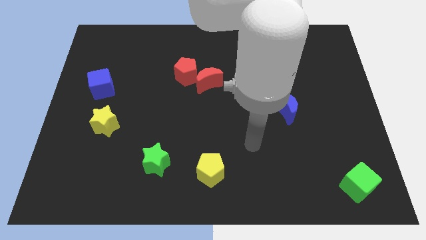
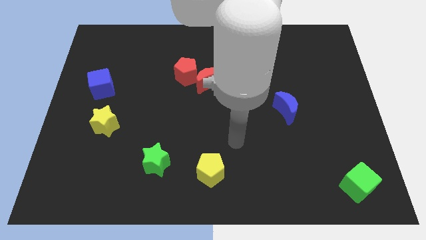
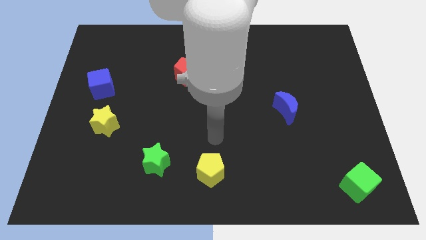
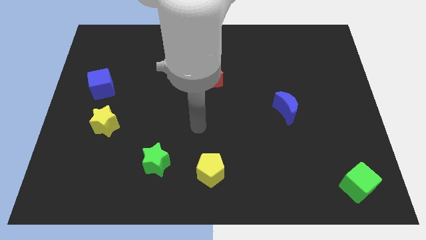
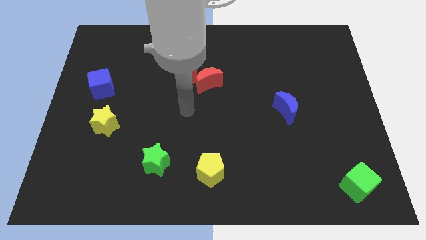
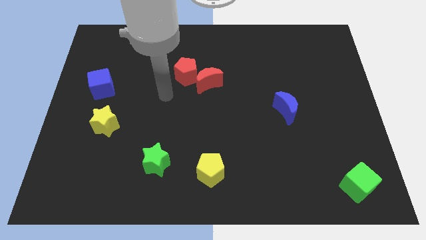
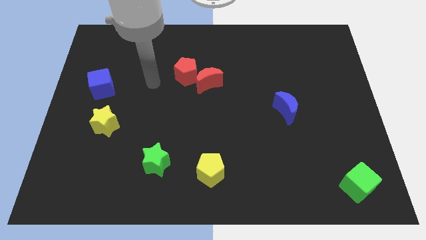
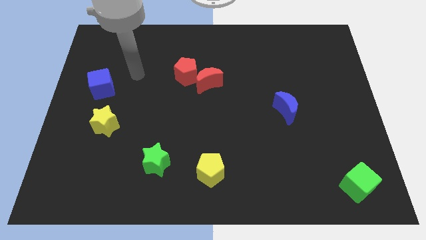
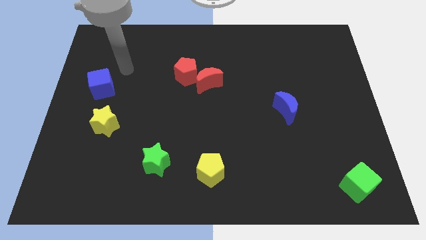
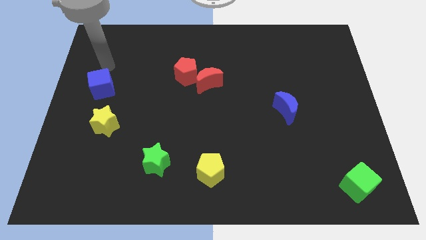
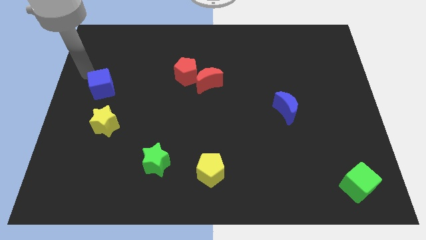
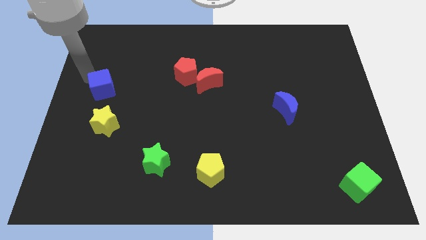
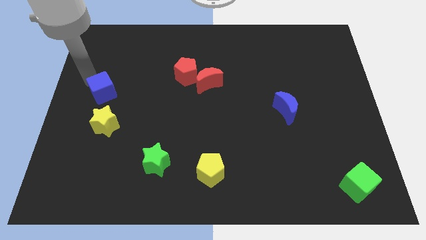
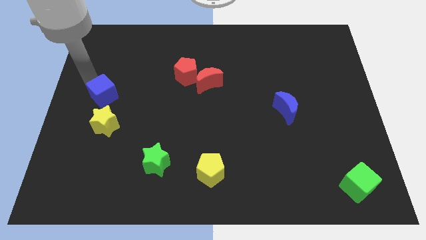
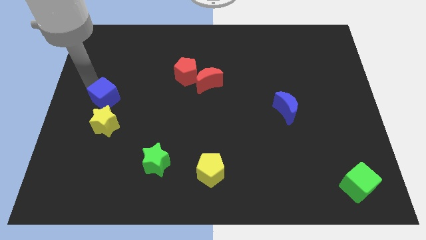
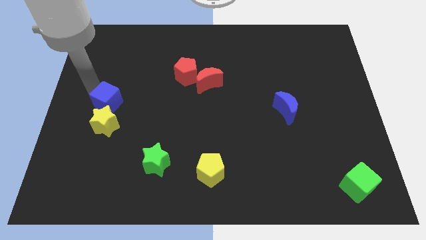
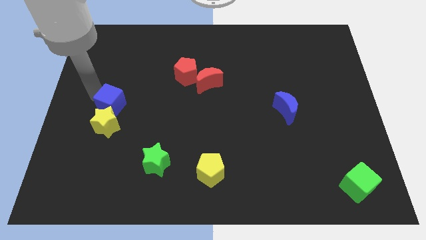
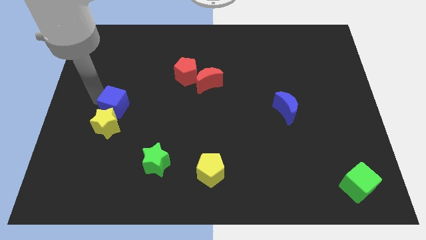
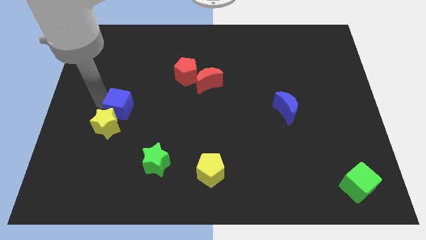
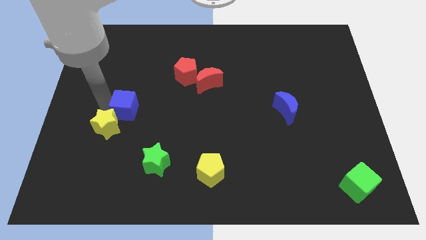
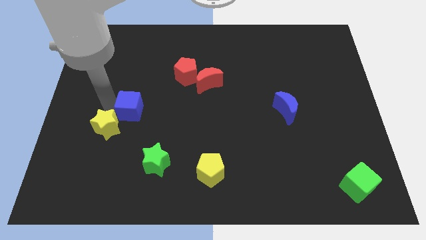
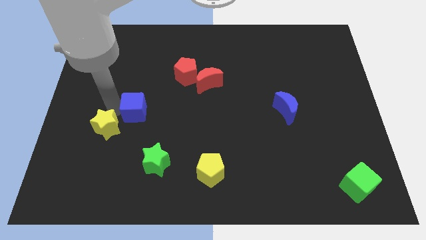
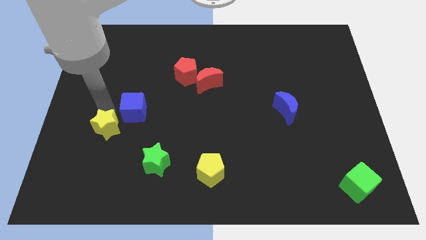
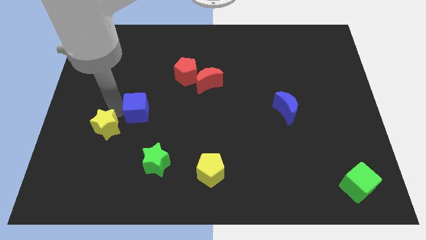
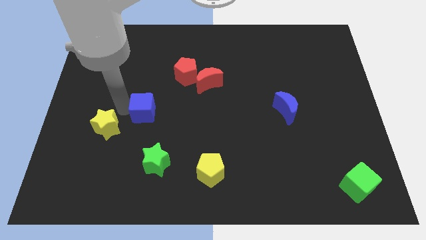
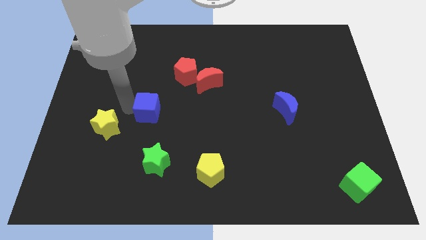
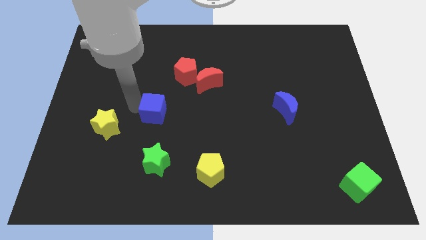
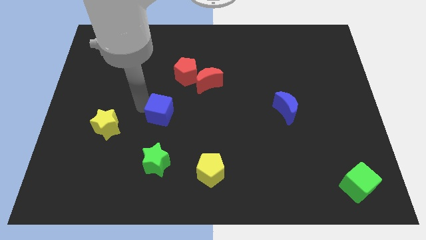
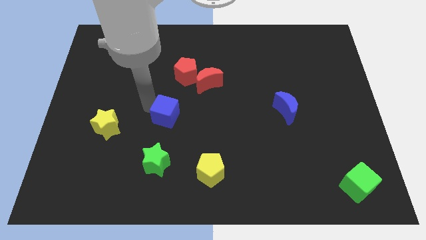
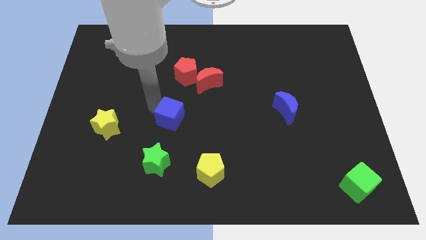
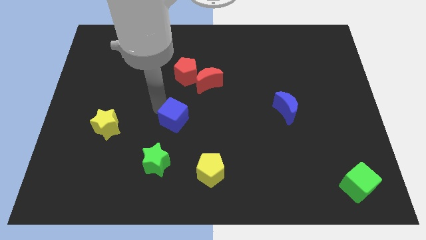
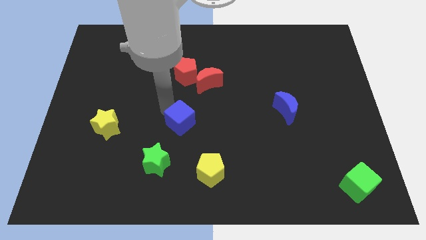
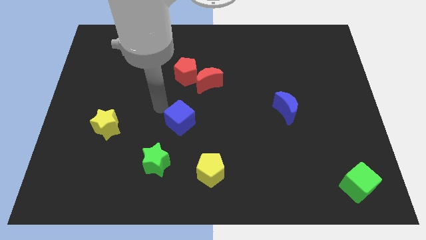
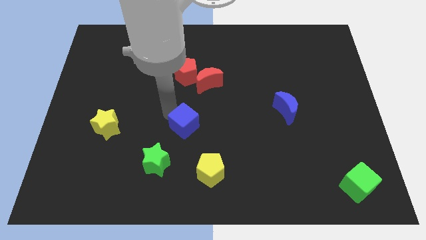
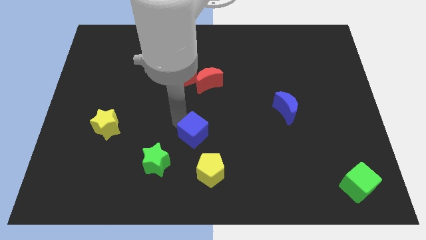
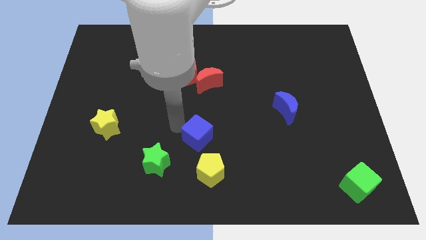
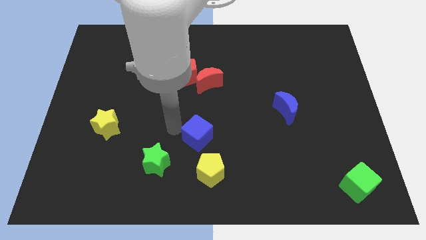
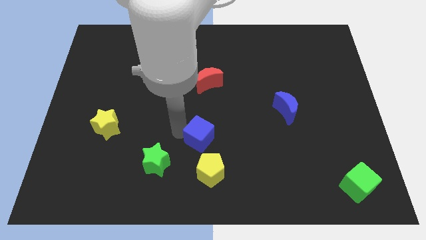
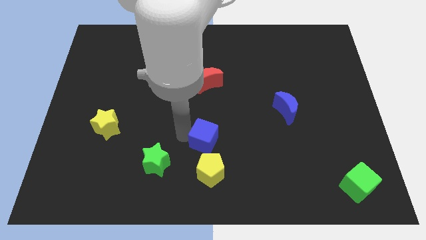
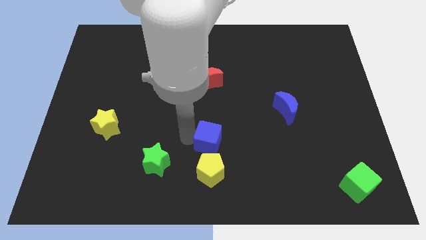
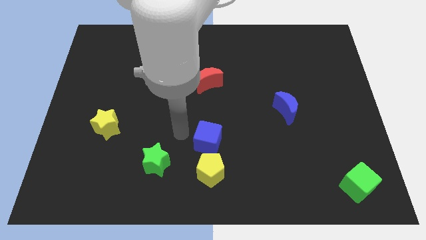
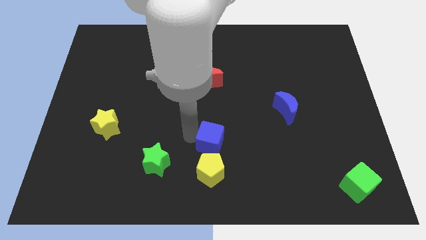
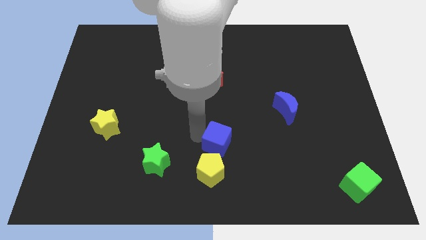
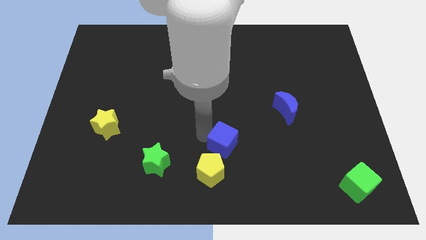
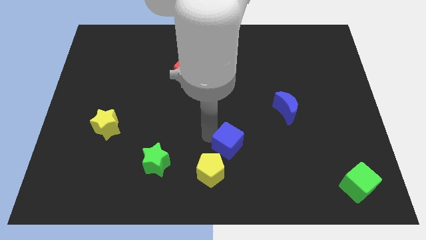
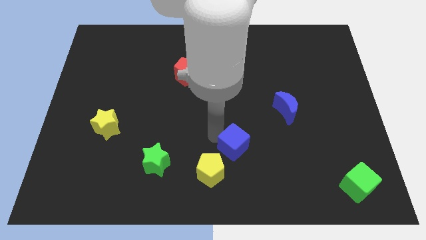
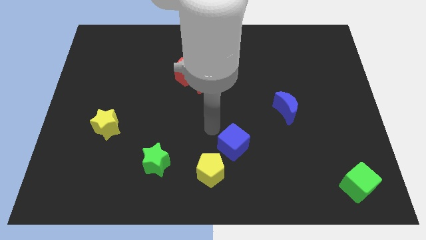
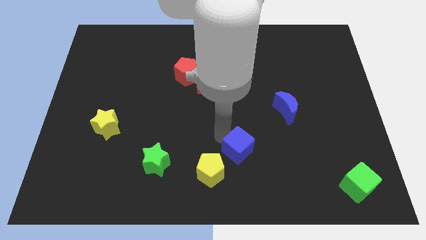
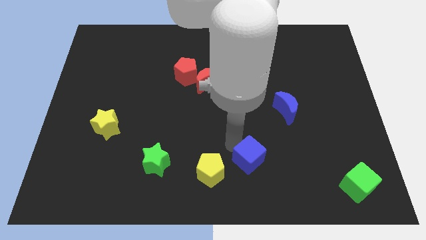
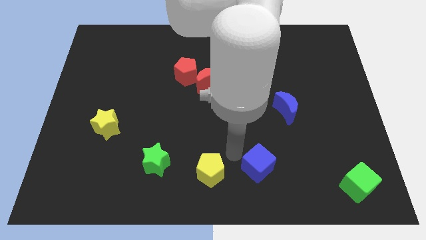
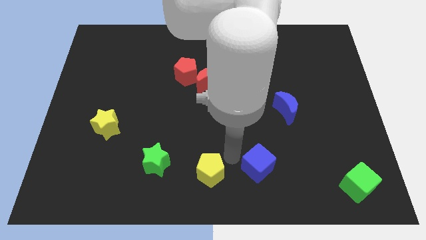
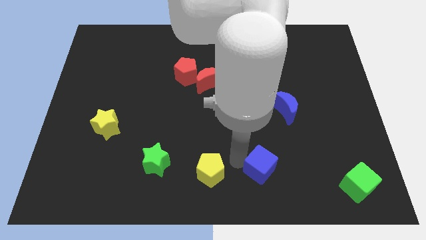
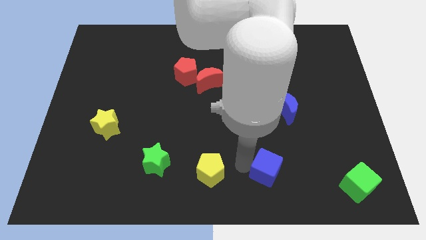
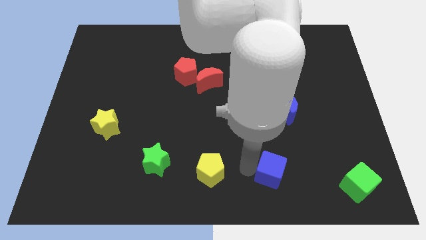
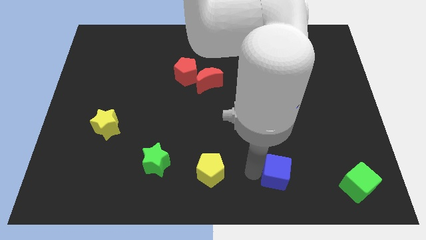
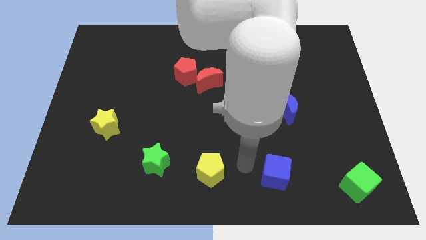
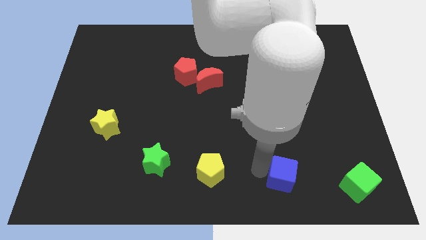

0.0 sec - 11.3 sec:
push the blue cube just left of the green cube

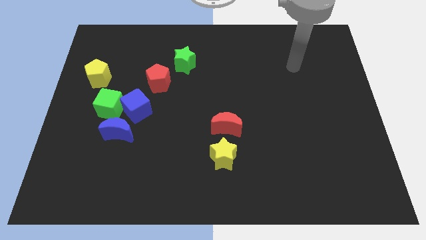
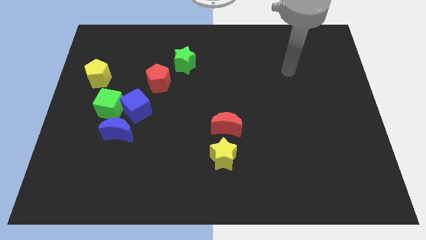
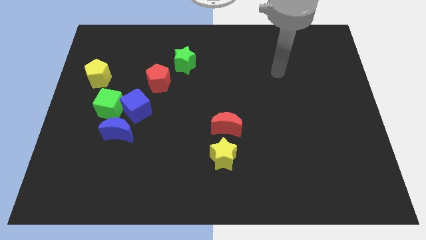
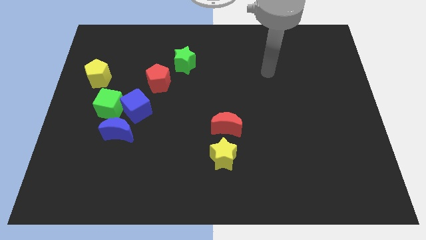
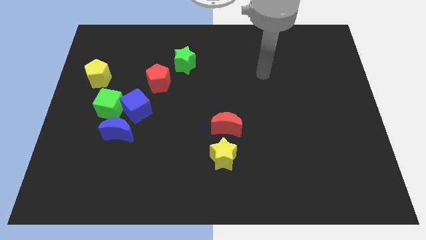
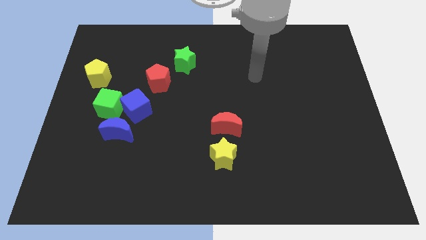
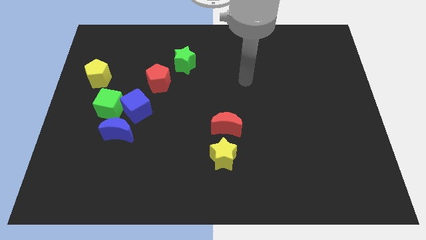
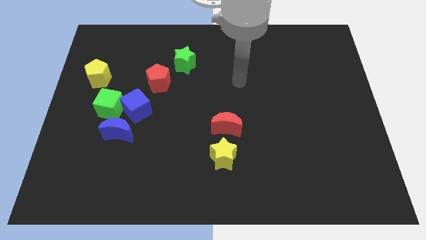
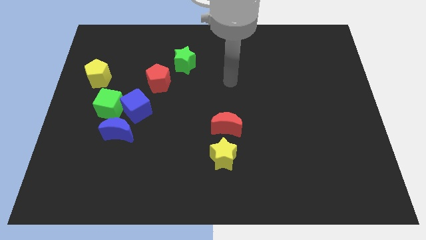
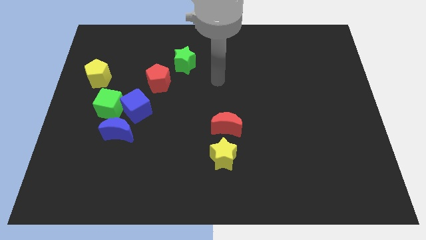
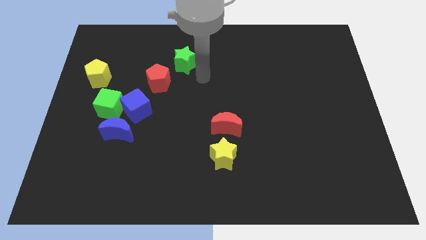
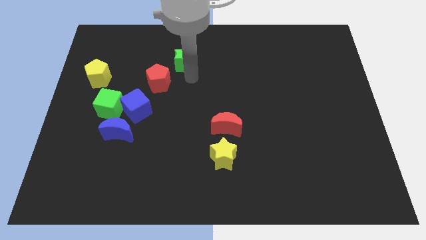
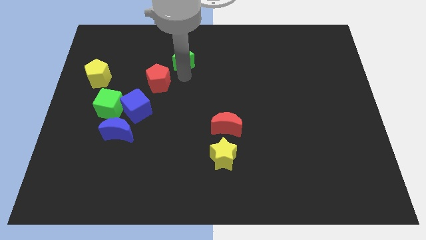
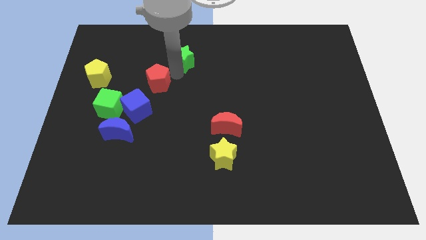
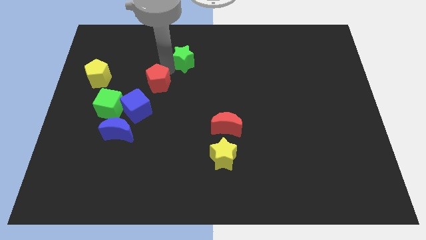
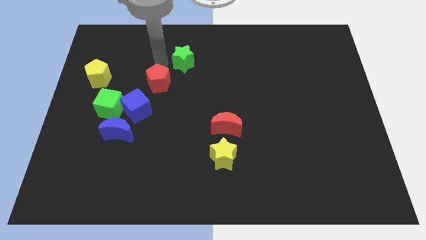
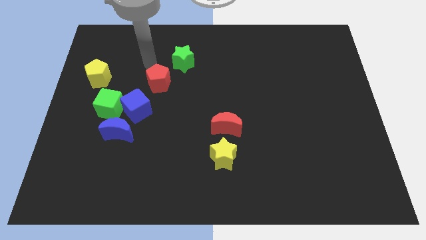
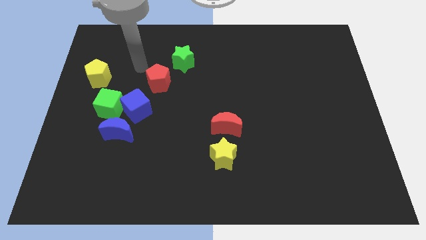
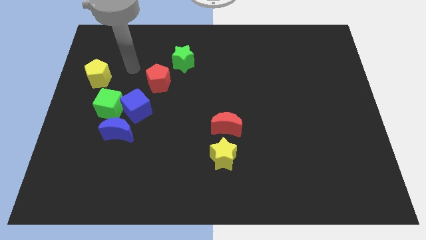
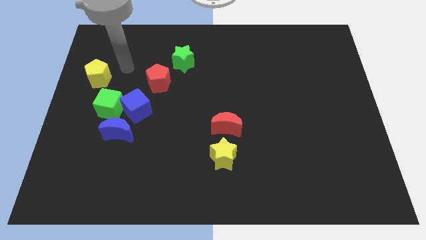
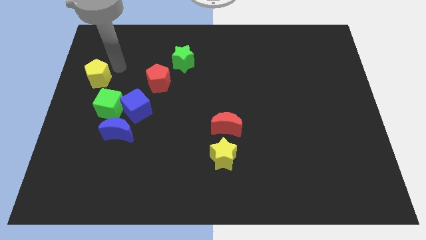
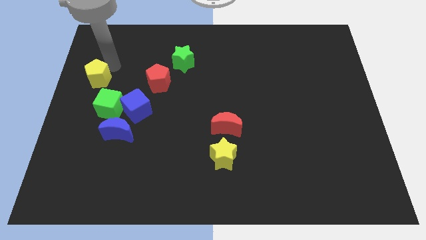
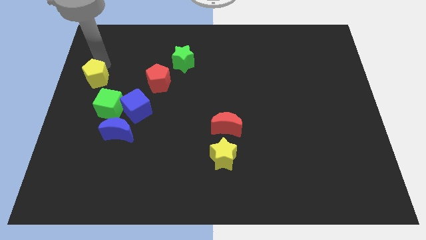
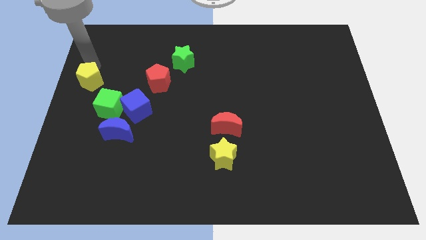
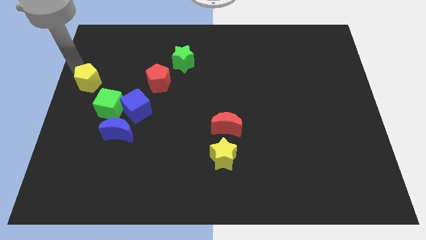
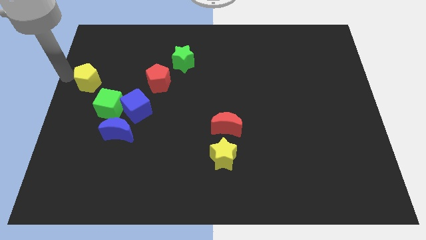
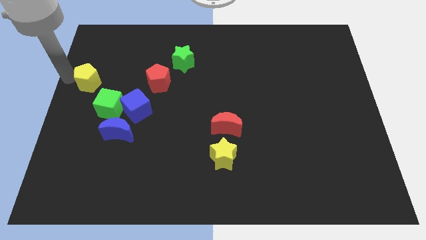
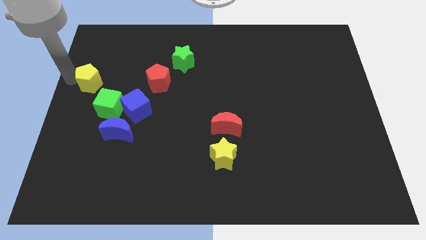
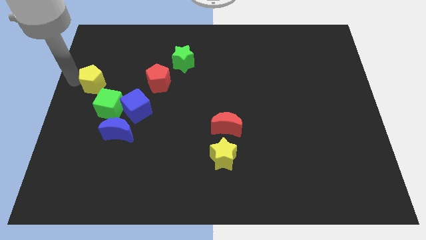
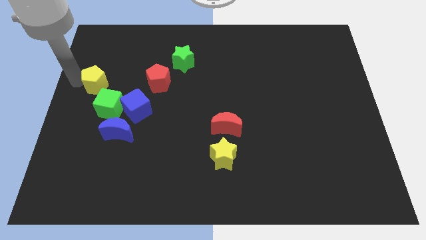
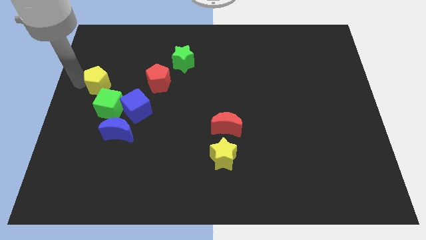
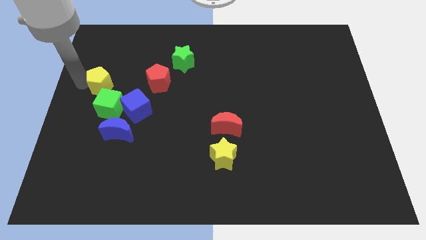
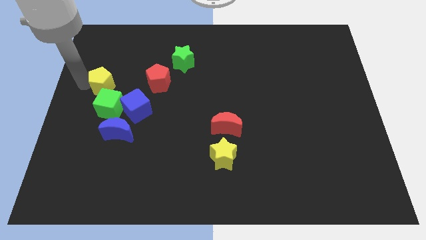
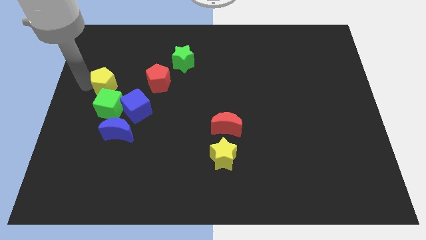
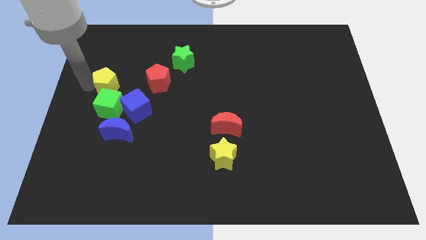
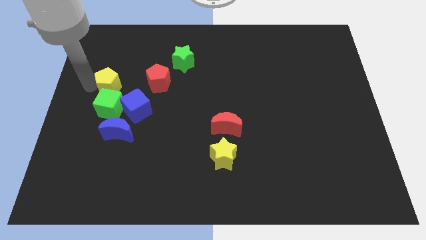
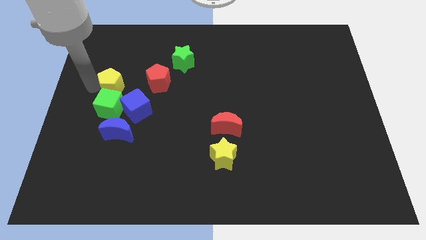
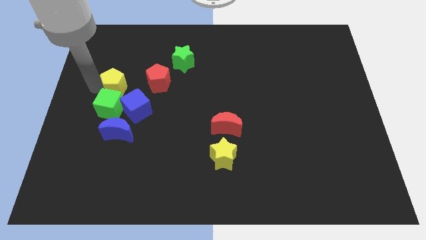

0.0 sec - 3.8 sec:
push the yellow pentagon diagonally up and to the right of the green cube
